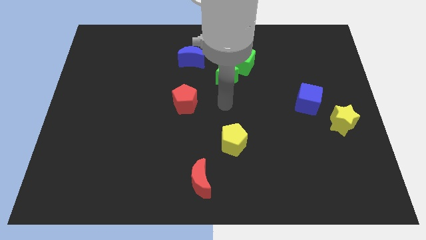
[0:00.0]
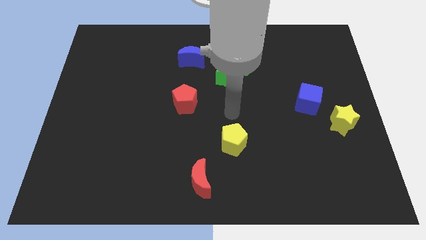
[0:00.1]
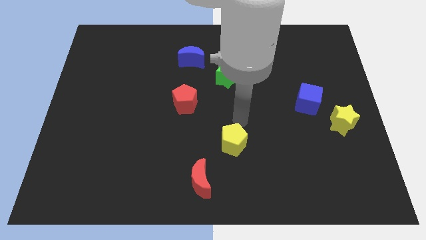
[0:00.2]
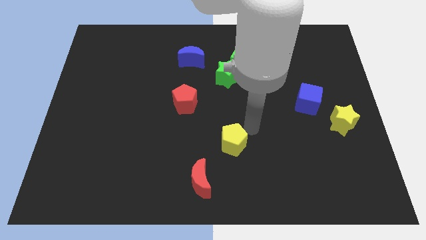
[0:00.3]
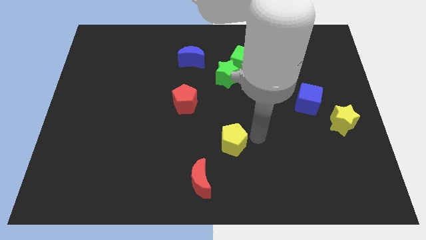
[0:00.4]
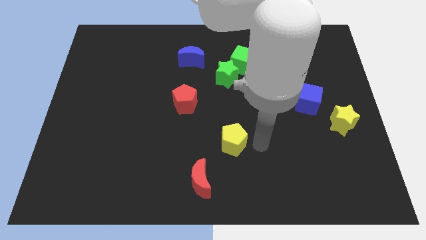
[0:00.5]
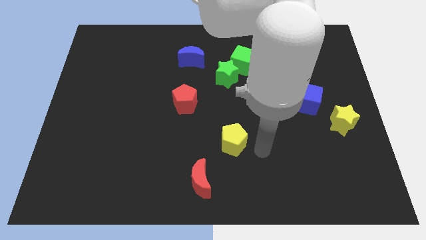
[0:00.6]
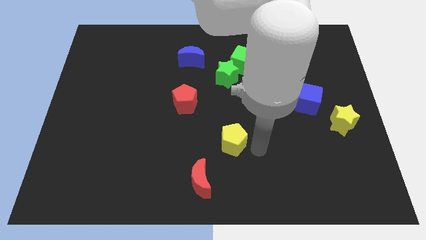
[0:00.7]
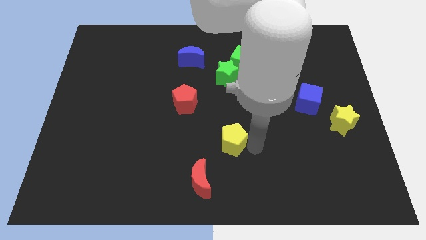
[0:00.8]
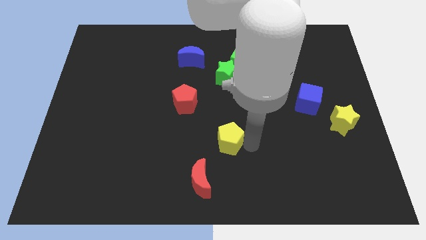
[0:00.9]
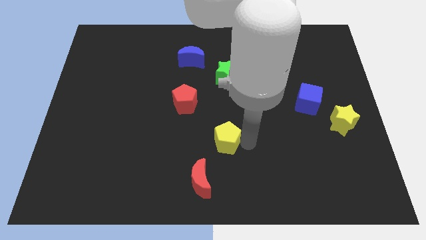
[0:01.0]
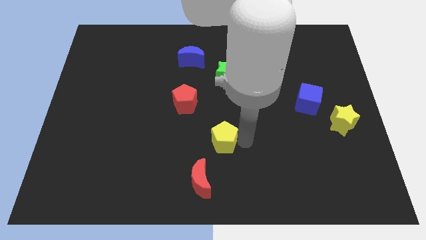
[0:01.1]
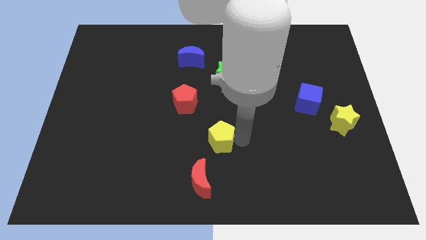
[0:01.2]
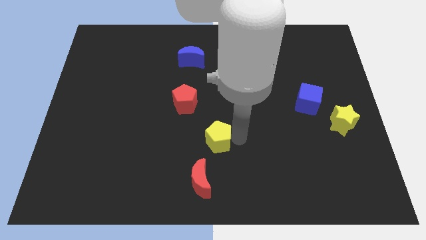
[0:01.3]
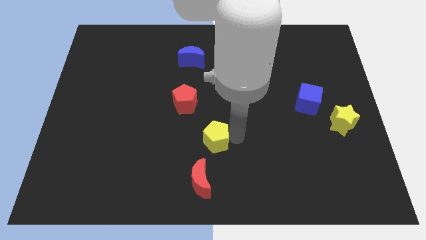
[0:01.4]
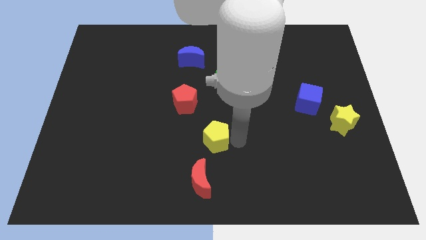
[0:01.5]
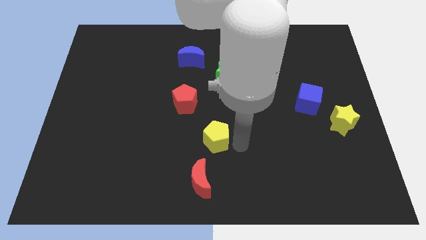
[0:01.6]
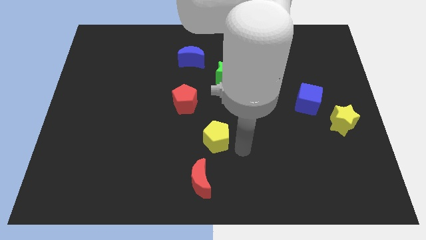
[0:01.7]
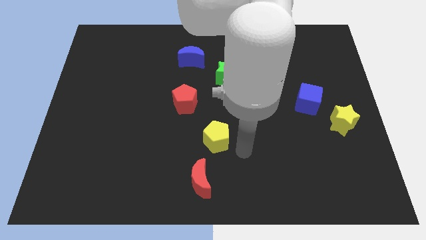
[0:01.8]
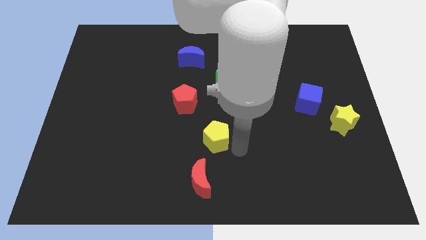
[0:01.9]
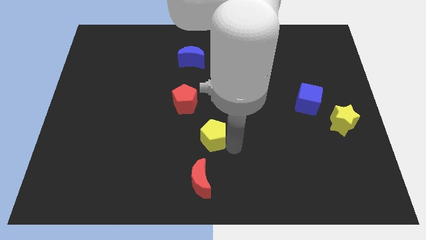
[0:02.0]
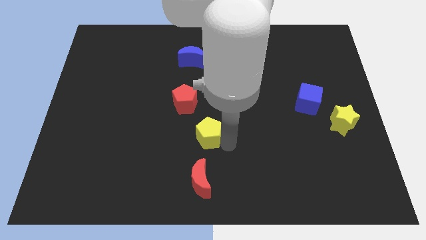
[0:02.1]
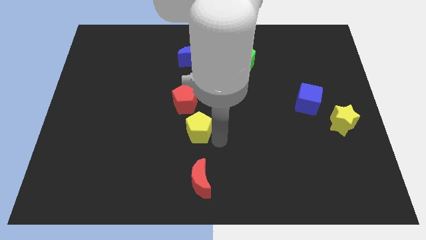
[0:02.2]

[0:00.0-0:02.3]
slightly push the yellow pentagon diagonally upwards and left

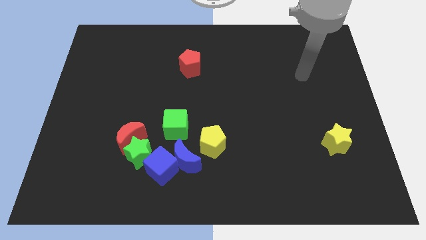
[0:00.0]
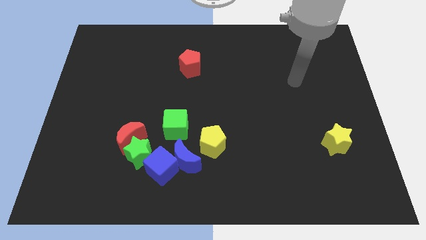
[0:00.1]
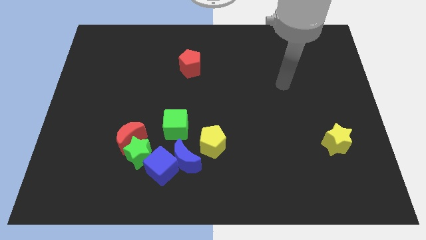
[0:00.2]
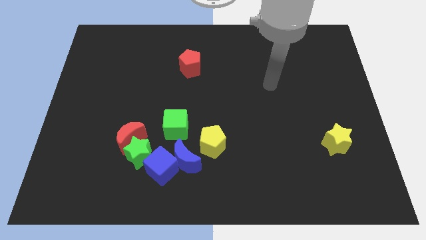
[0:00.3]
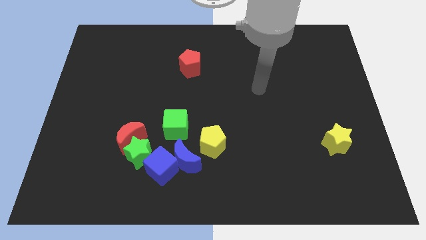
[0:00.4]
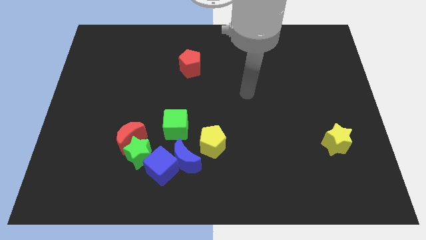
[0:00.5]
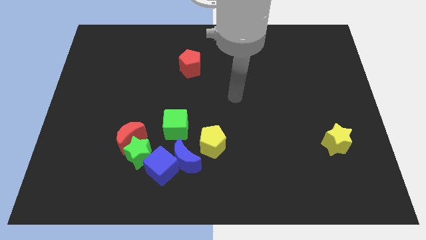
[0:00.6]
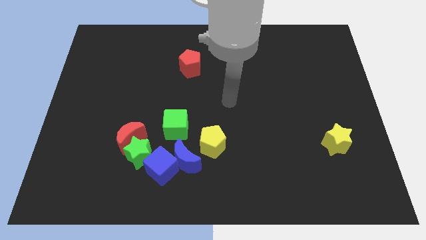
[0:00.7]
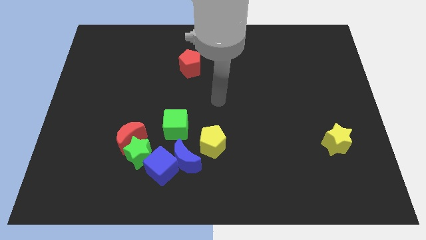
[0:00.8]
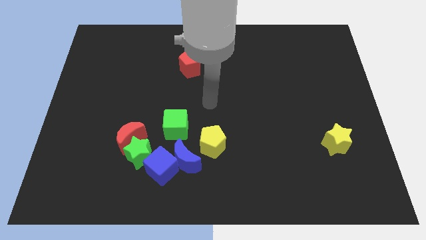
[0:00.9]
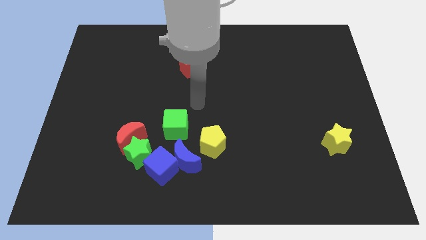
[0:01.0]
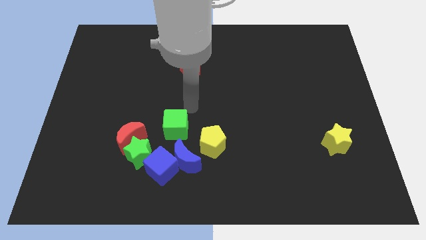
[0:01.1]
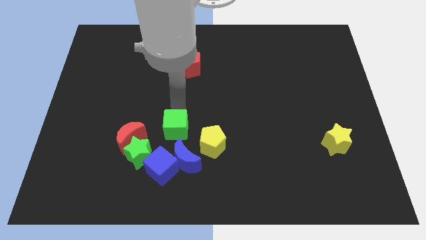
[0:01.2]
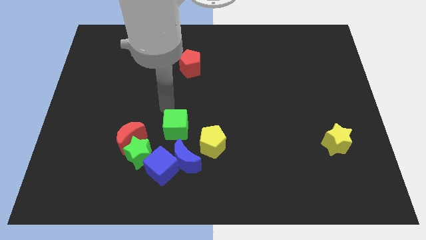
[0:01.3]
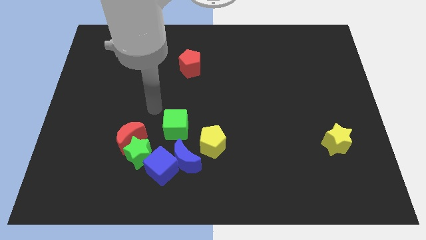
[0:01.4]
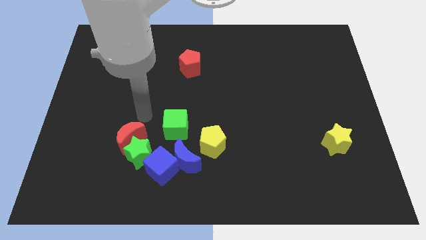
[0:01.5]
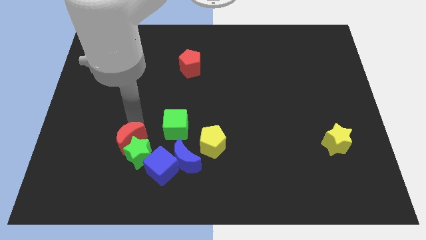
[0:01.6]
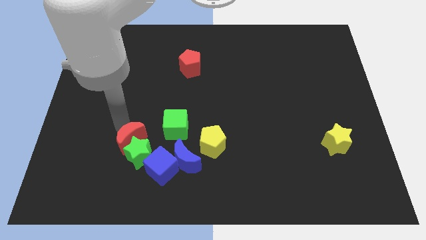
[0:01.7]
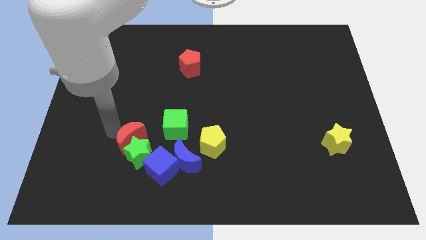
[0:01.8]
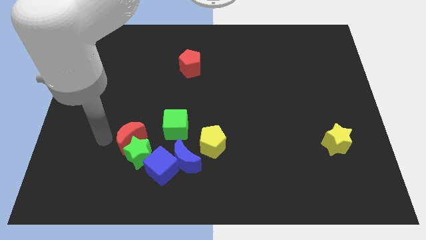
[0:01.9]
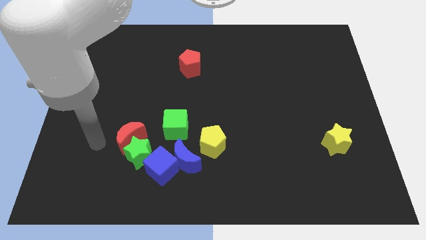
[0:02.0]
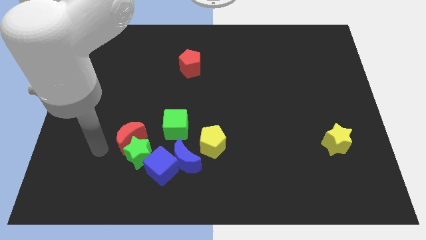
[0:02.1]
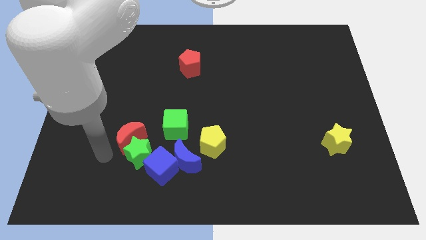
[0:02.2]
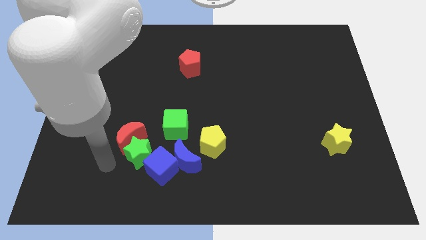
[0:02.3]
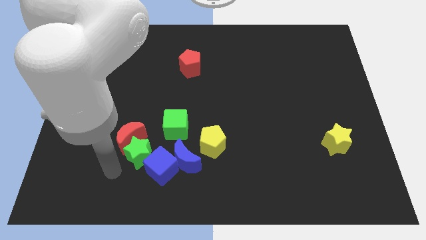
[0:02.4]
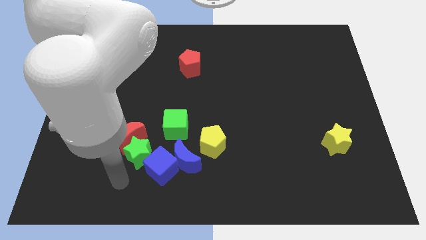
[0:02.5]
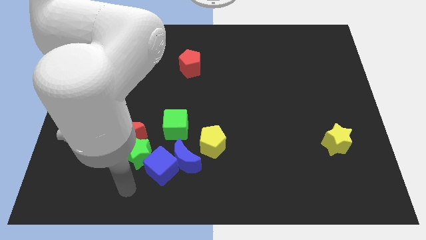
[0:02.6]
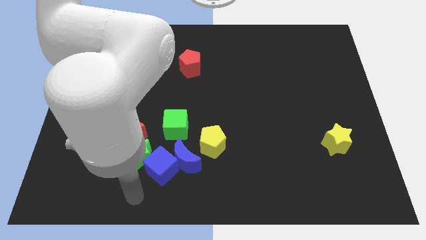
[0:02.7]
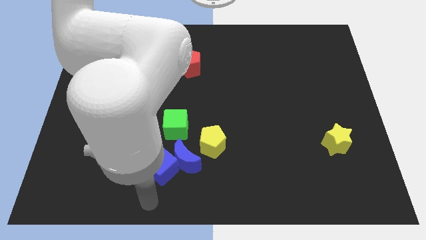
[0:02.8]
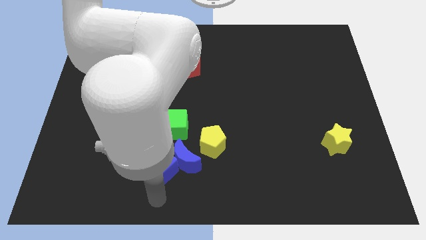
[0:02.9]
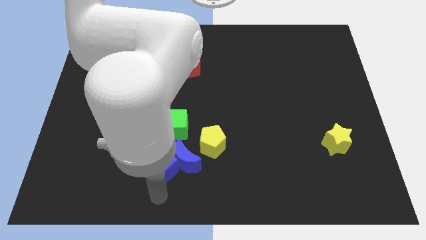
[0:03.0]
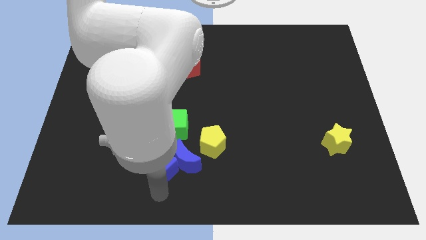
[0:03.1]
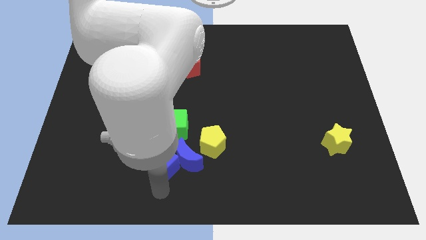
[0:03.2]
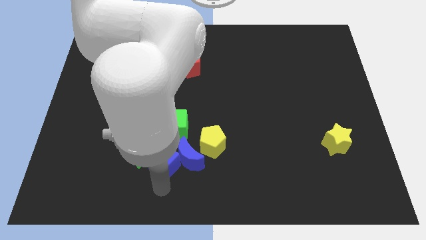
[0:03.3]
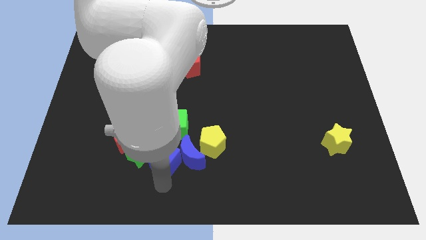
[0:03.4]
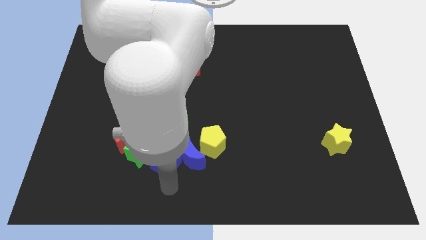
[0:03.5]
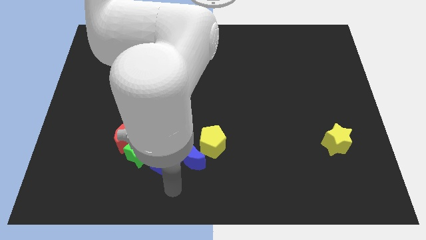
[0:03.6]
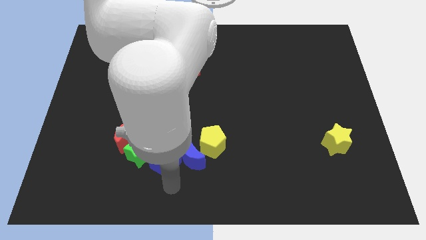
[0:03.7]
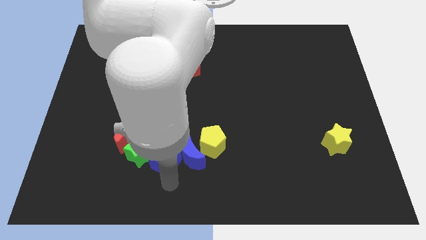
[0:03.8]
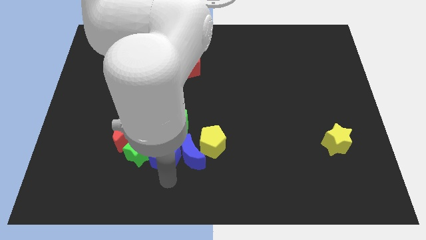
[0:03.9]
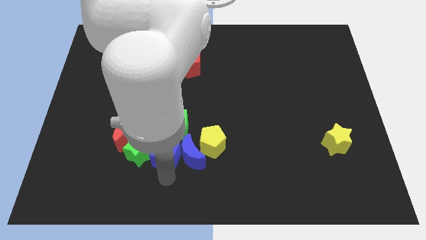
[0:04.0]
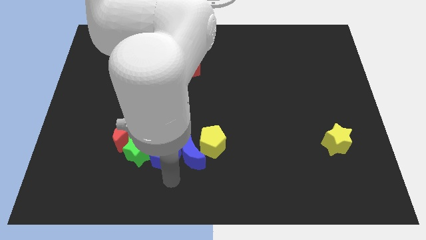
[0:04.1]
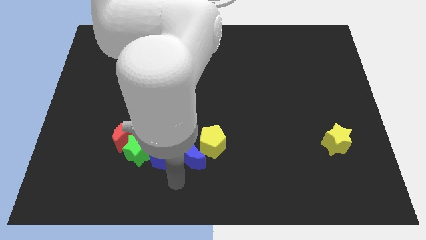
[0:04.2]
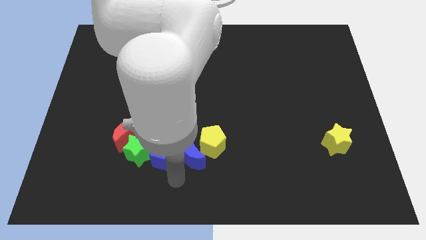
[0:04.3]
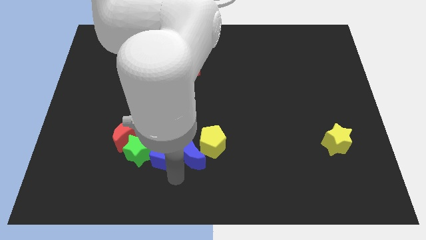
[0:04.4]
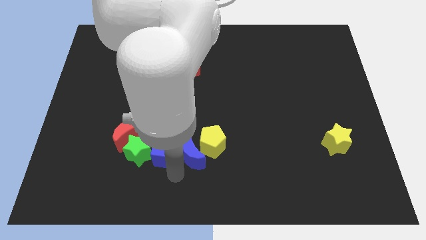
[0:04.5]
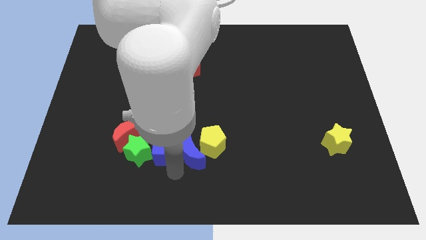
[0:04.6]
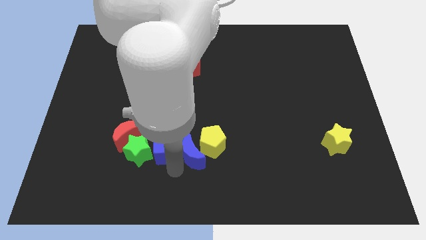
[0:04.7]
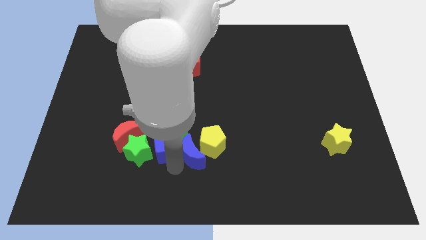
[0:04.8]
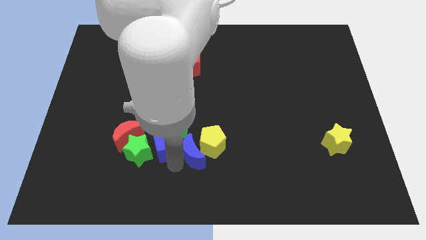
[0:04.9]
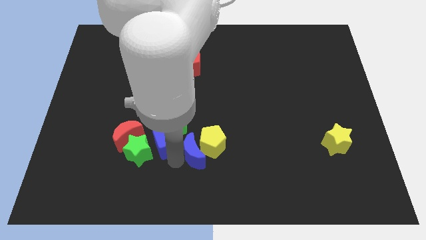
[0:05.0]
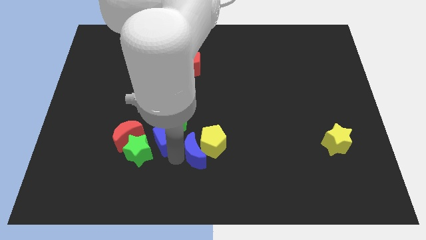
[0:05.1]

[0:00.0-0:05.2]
move the blue cube a little up

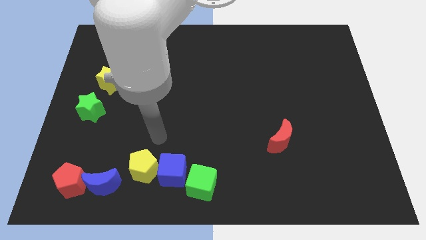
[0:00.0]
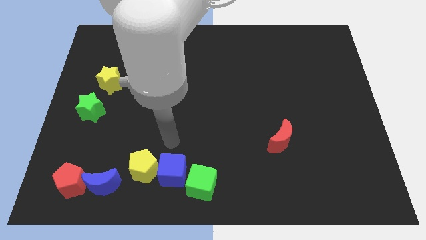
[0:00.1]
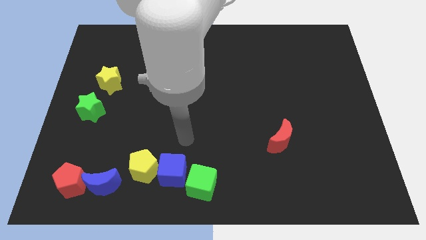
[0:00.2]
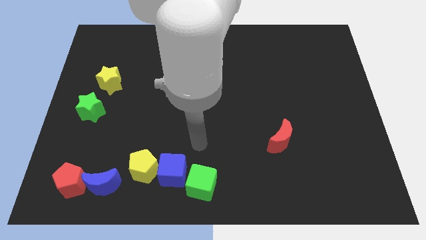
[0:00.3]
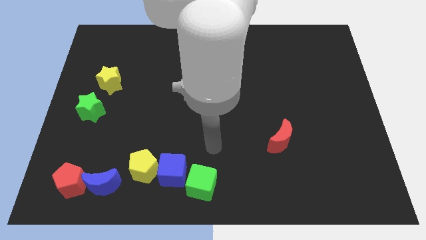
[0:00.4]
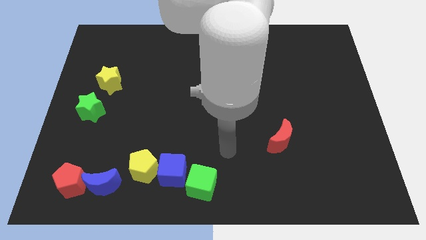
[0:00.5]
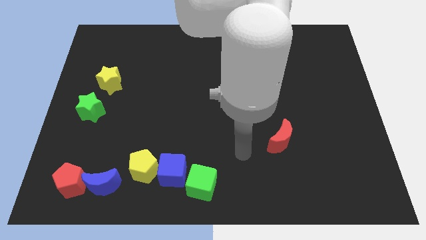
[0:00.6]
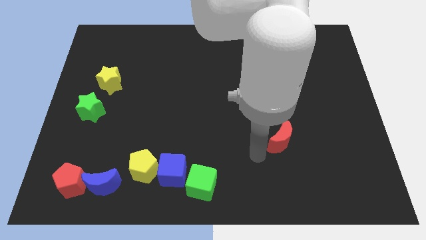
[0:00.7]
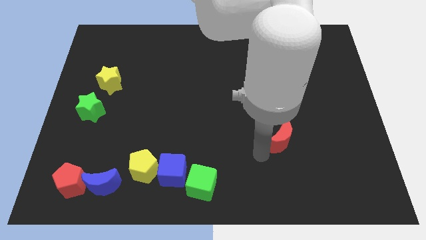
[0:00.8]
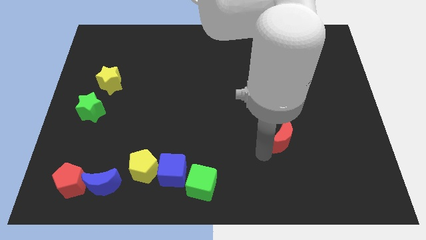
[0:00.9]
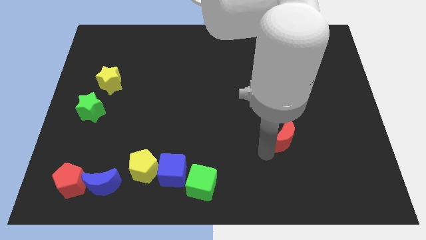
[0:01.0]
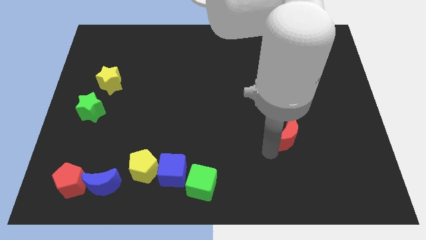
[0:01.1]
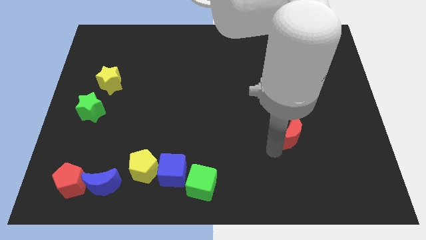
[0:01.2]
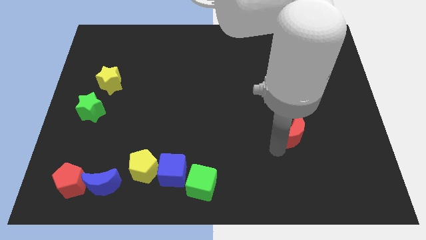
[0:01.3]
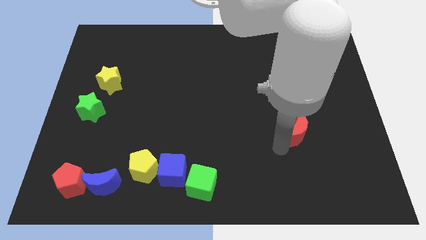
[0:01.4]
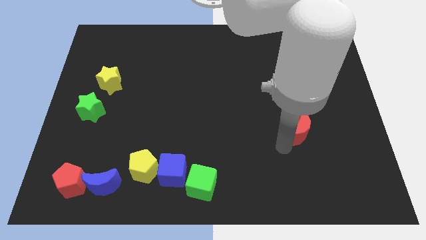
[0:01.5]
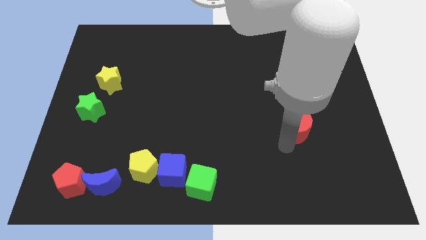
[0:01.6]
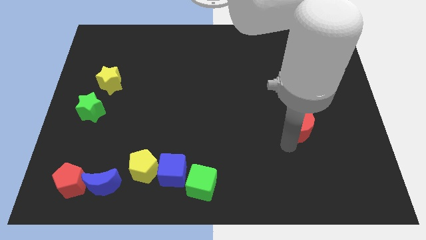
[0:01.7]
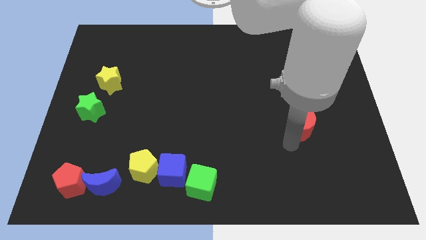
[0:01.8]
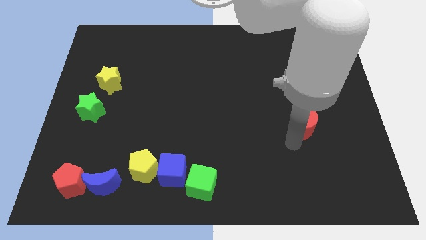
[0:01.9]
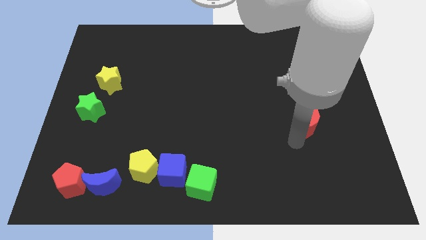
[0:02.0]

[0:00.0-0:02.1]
push the red moon upwards and to the right a little bit
